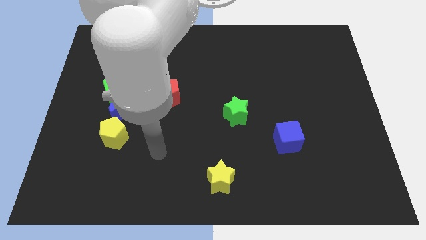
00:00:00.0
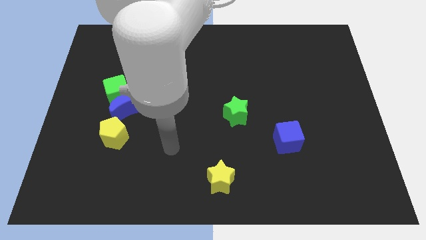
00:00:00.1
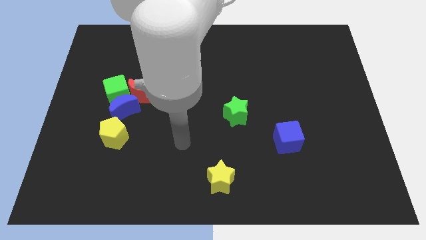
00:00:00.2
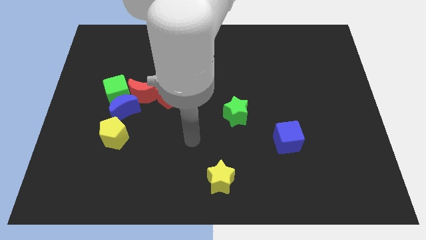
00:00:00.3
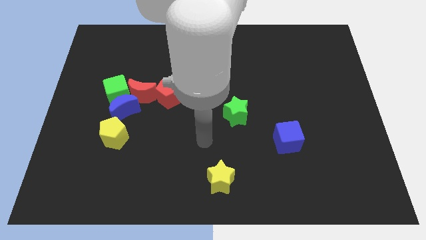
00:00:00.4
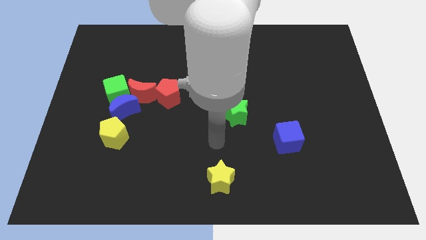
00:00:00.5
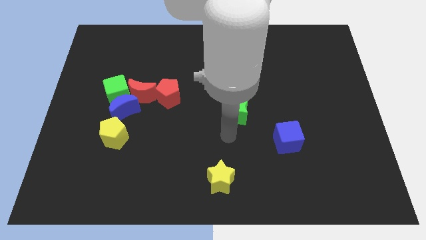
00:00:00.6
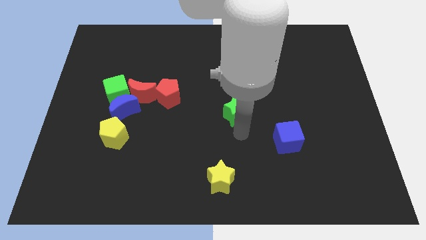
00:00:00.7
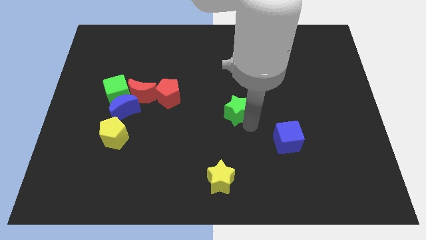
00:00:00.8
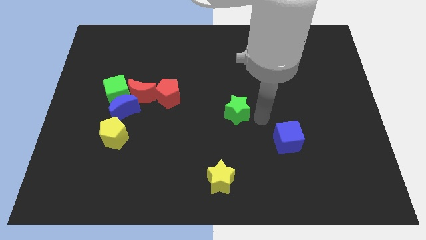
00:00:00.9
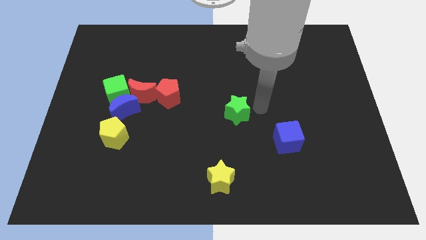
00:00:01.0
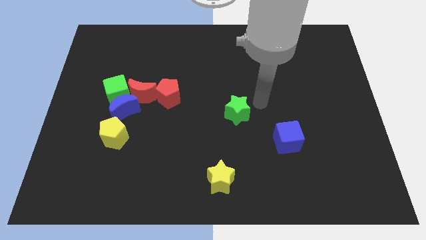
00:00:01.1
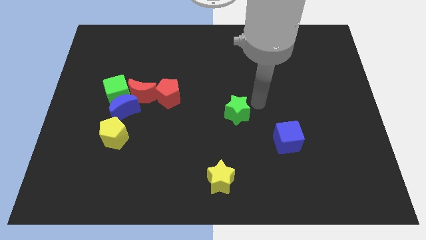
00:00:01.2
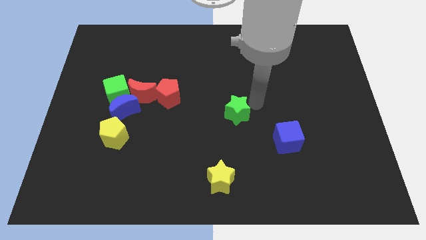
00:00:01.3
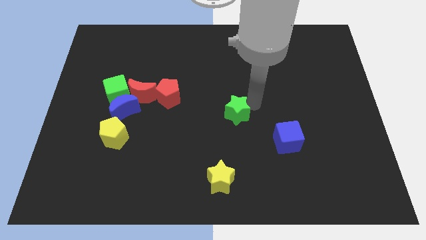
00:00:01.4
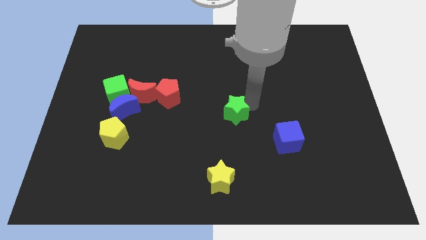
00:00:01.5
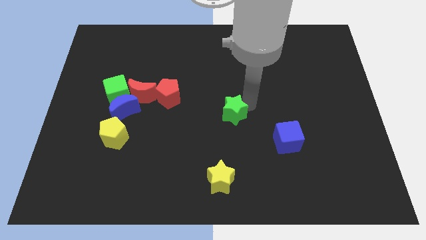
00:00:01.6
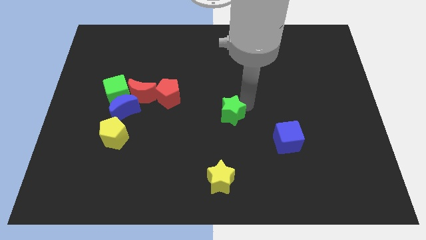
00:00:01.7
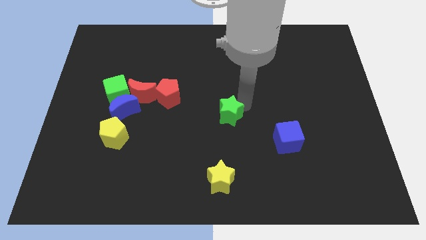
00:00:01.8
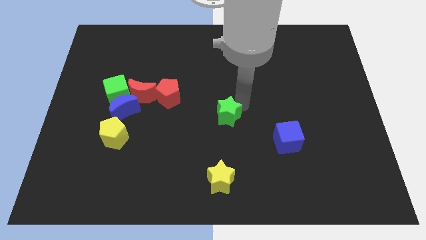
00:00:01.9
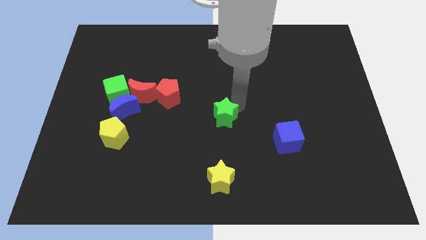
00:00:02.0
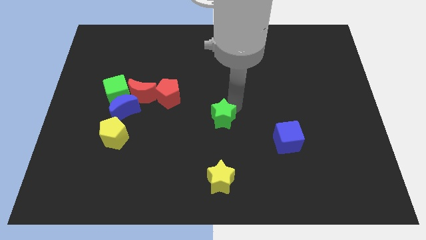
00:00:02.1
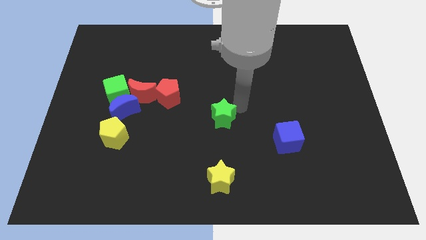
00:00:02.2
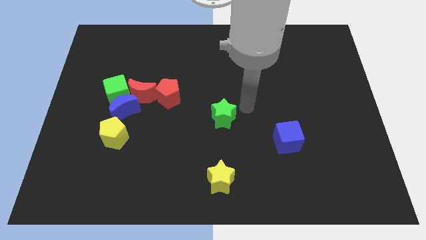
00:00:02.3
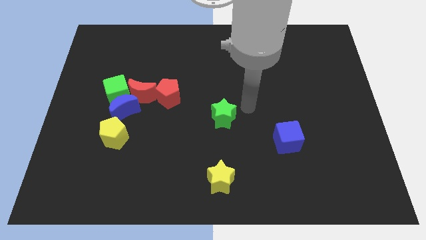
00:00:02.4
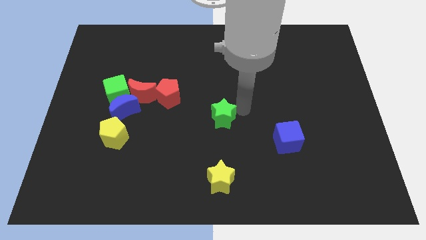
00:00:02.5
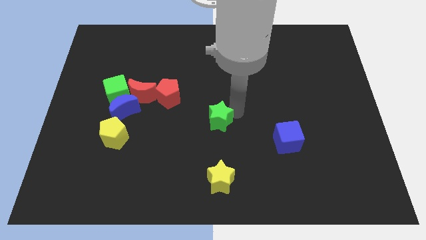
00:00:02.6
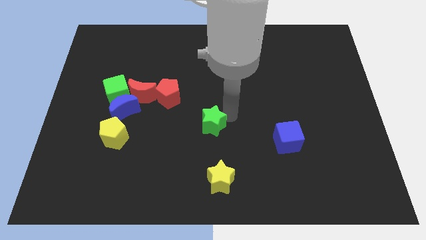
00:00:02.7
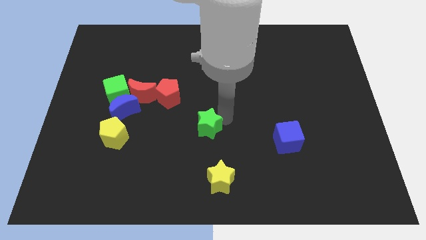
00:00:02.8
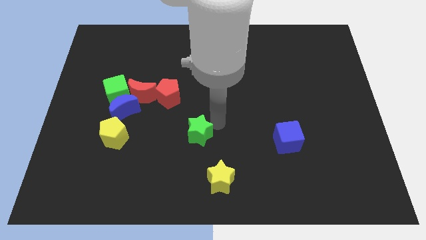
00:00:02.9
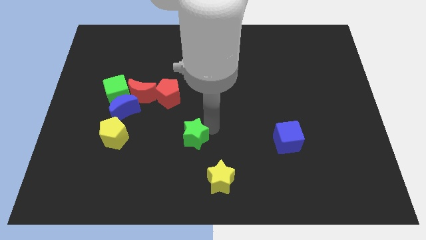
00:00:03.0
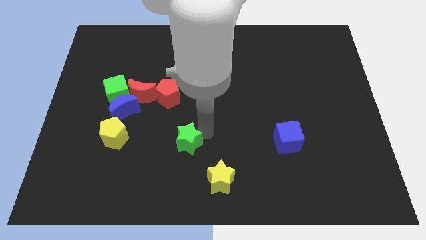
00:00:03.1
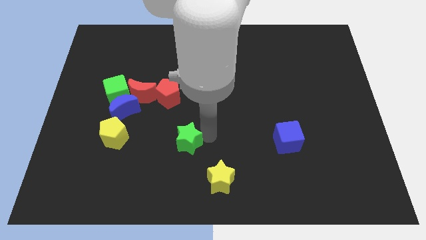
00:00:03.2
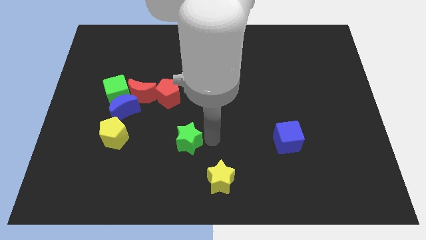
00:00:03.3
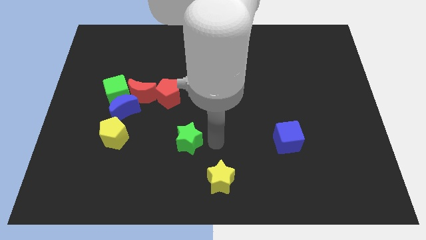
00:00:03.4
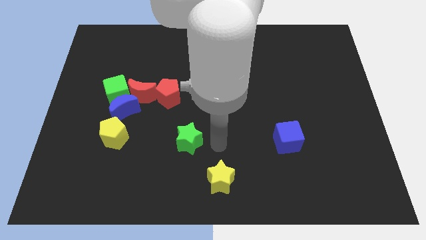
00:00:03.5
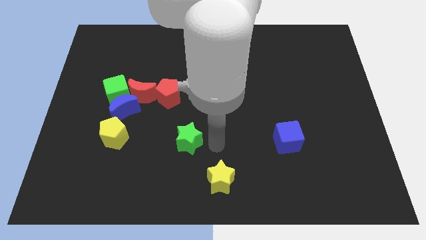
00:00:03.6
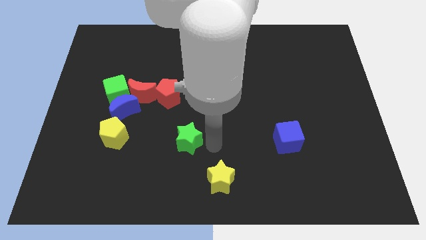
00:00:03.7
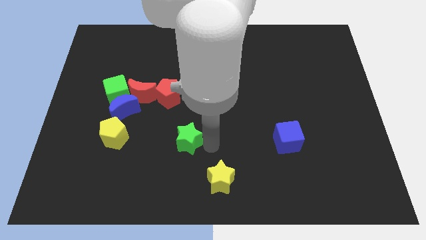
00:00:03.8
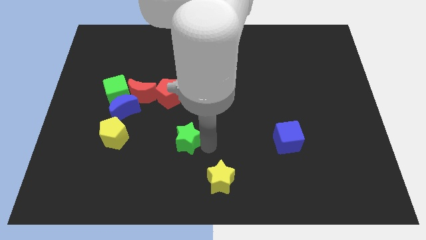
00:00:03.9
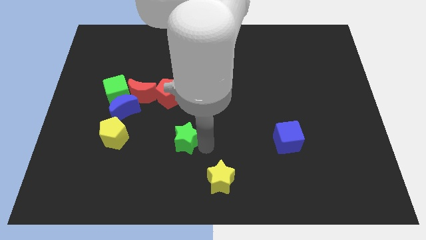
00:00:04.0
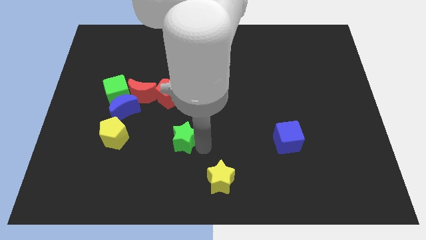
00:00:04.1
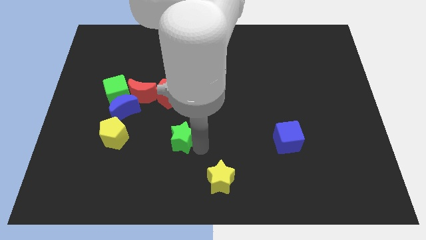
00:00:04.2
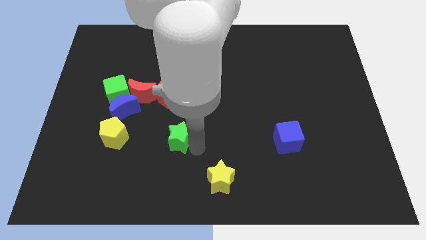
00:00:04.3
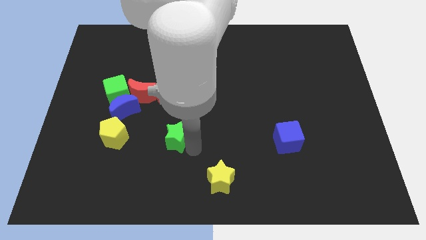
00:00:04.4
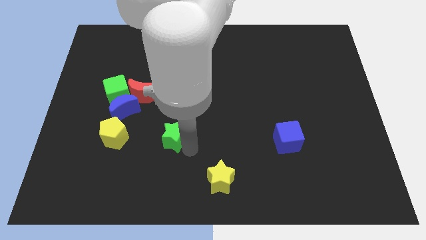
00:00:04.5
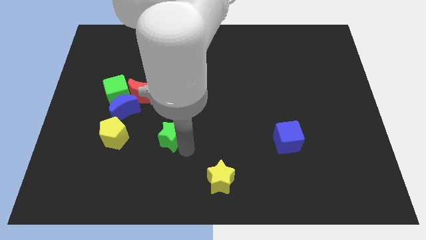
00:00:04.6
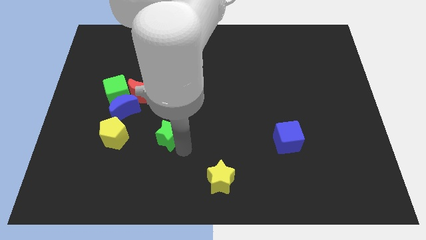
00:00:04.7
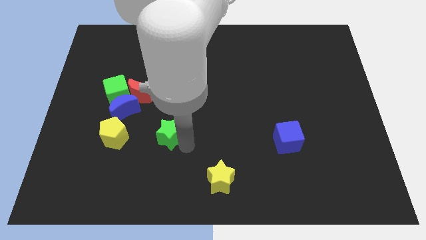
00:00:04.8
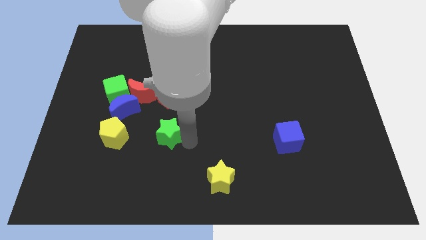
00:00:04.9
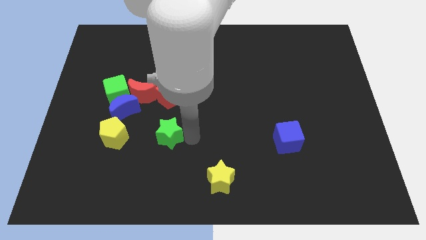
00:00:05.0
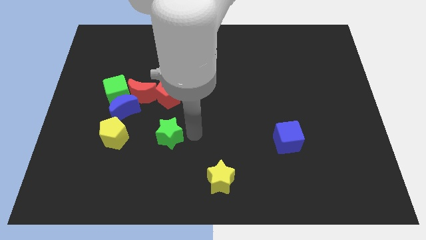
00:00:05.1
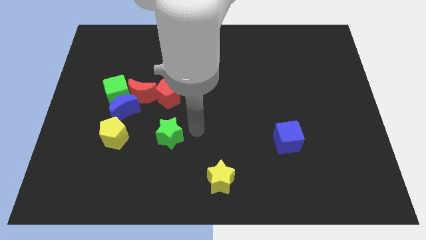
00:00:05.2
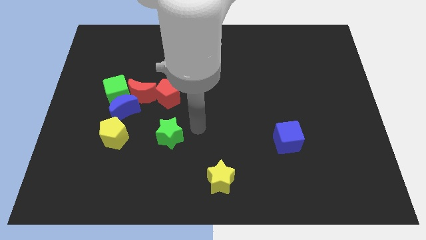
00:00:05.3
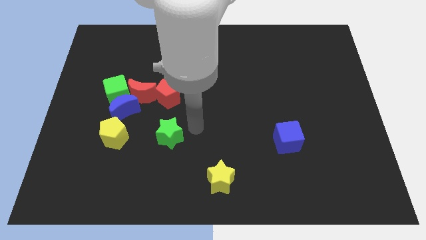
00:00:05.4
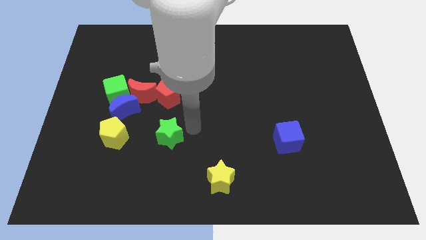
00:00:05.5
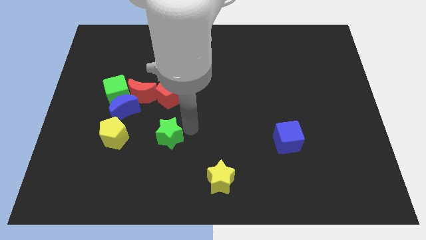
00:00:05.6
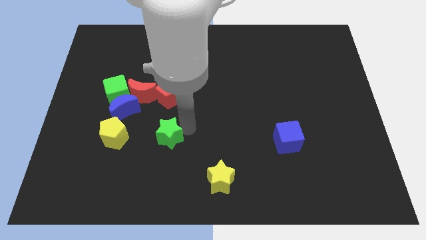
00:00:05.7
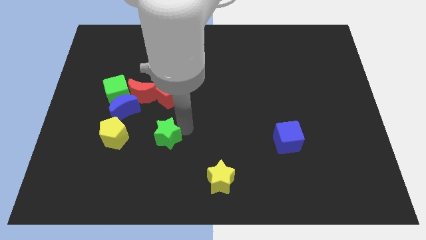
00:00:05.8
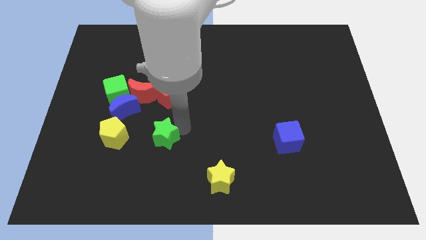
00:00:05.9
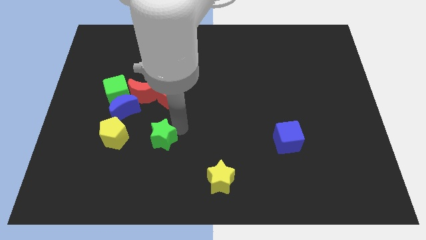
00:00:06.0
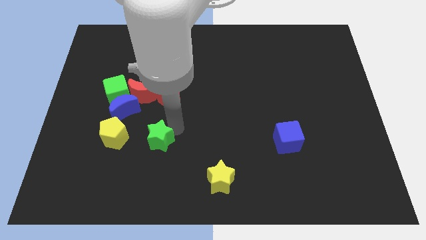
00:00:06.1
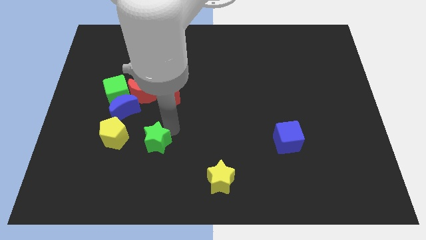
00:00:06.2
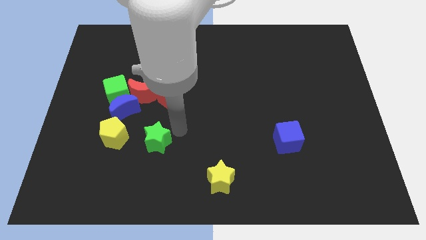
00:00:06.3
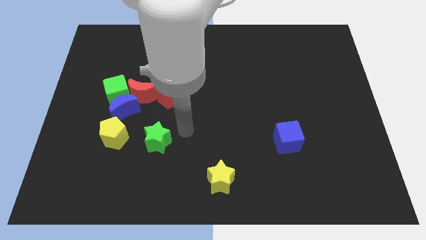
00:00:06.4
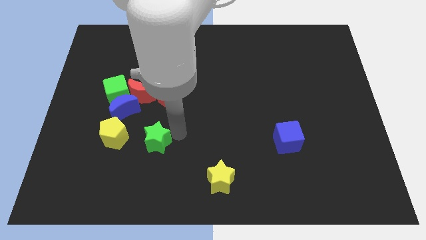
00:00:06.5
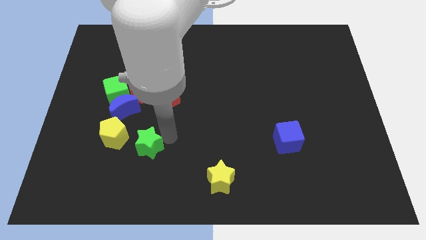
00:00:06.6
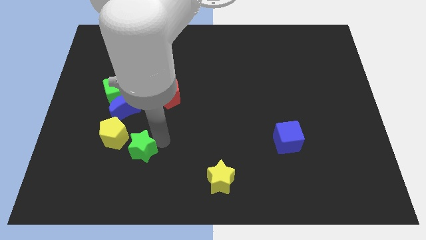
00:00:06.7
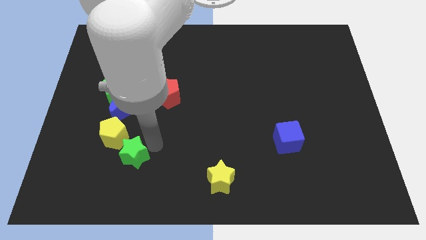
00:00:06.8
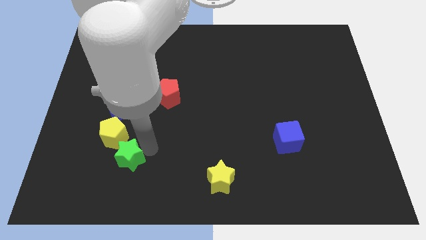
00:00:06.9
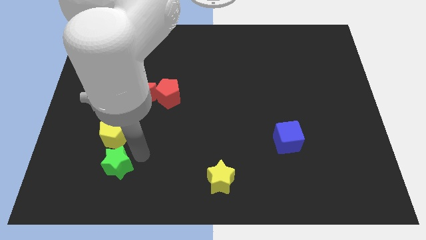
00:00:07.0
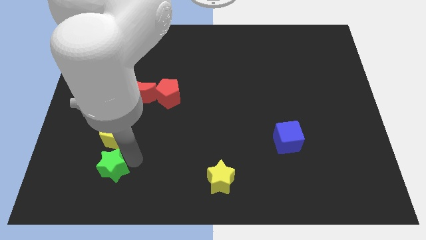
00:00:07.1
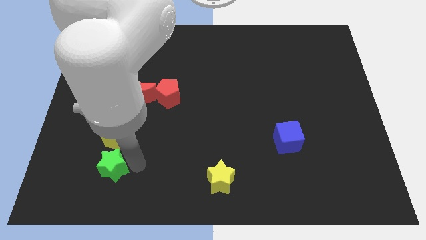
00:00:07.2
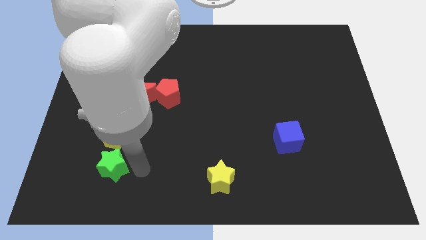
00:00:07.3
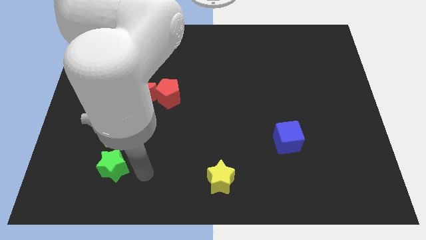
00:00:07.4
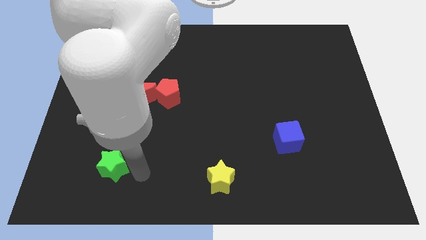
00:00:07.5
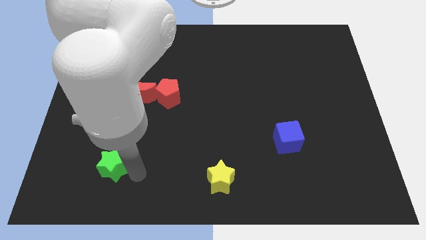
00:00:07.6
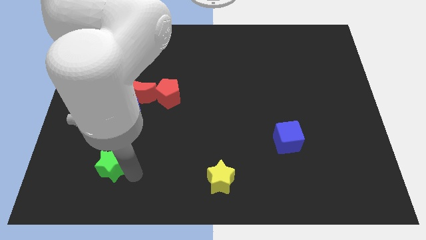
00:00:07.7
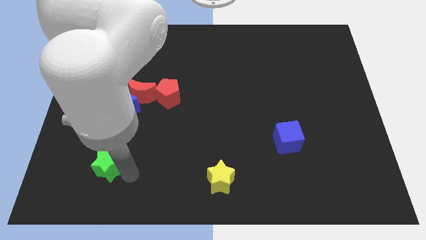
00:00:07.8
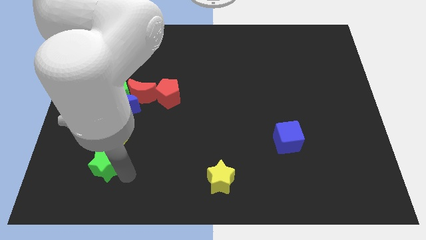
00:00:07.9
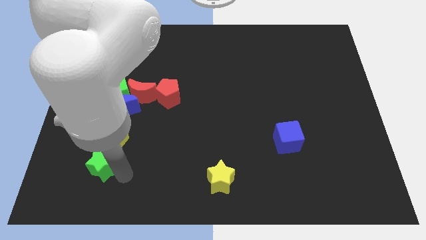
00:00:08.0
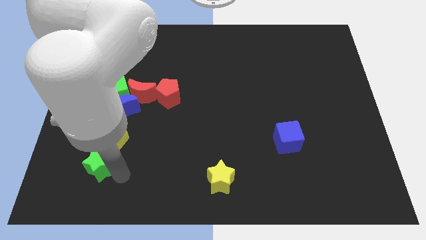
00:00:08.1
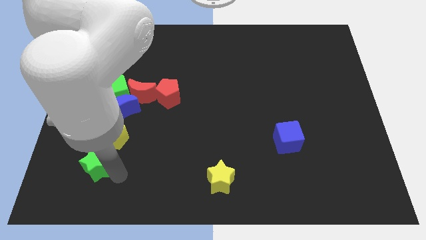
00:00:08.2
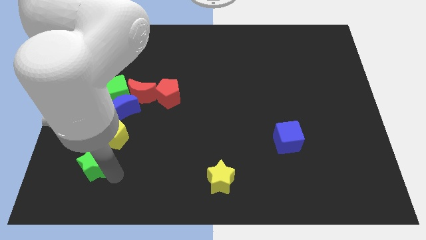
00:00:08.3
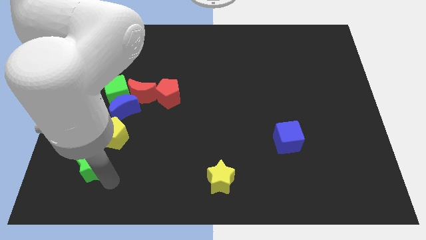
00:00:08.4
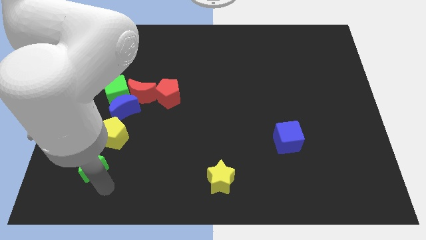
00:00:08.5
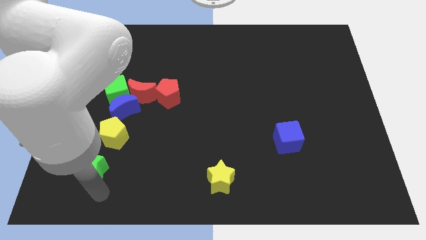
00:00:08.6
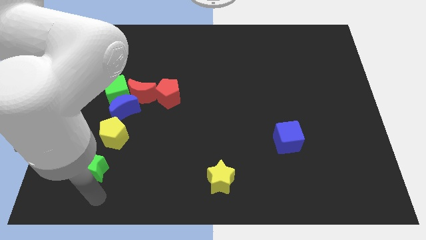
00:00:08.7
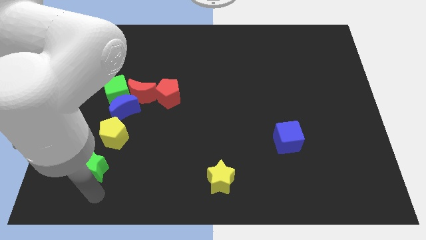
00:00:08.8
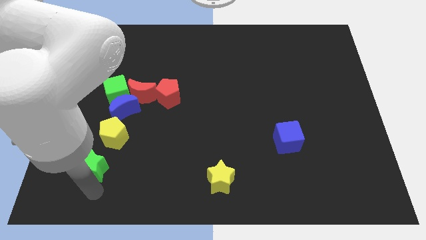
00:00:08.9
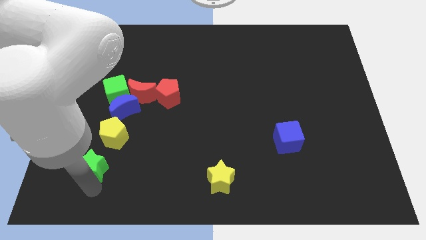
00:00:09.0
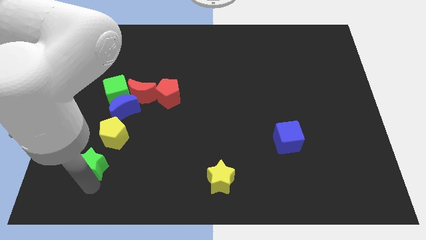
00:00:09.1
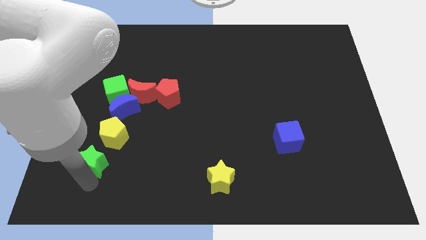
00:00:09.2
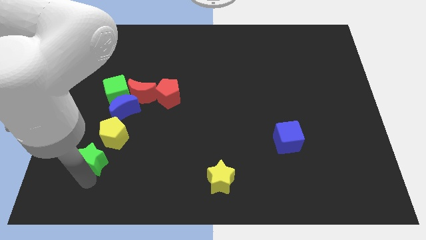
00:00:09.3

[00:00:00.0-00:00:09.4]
push the green star to the left
